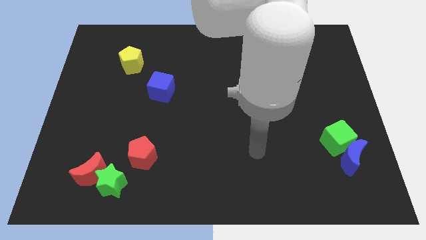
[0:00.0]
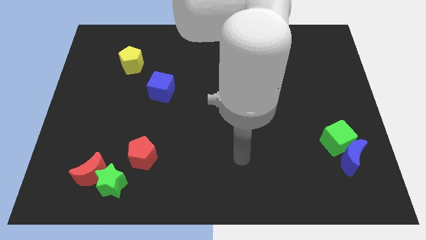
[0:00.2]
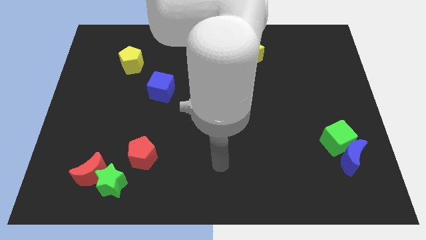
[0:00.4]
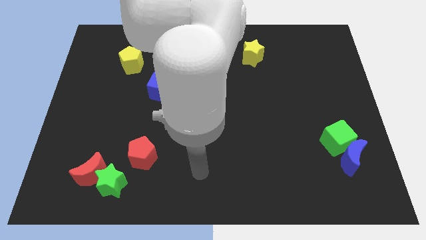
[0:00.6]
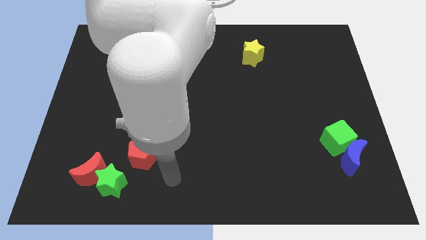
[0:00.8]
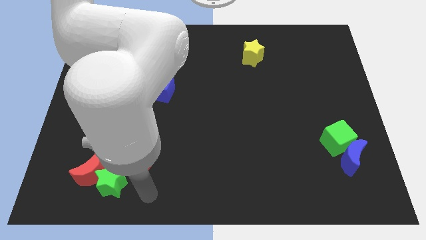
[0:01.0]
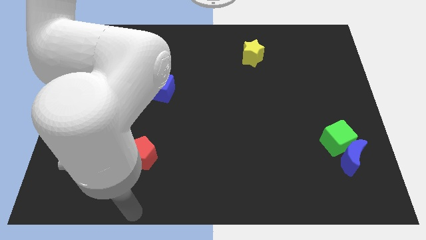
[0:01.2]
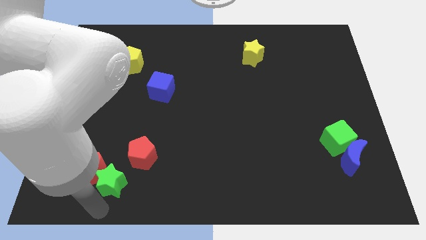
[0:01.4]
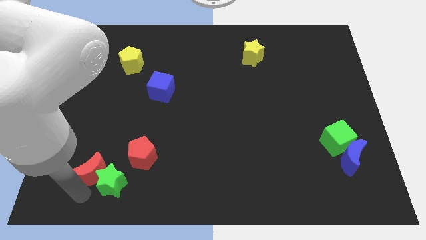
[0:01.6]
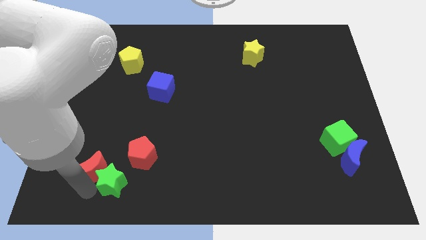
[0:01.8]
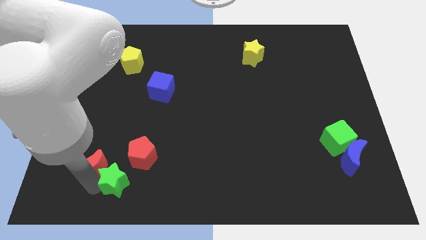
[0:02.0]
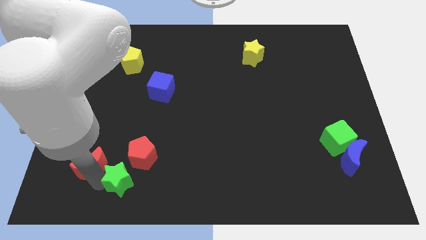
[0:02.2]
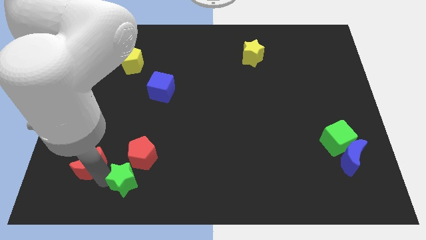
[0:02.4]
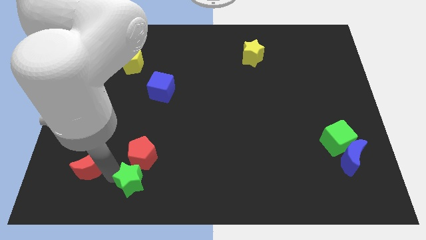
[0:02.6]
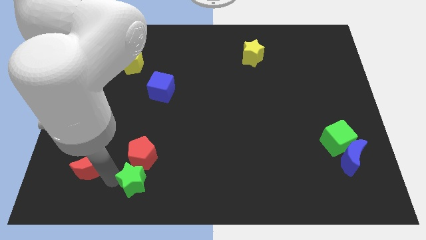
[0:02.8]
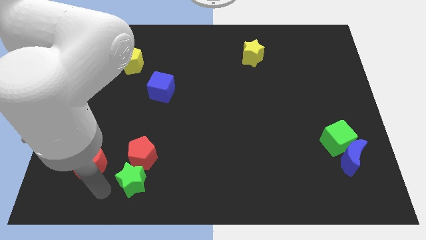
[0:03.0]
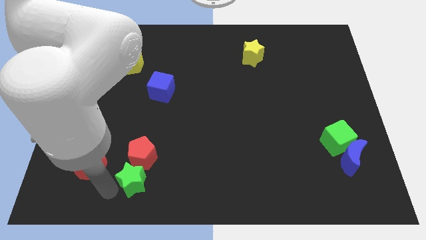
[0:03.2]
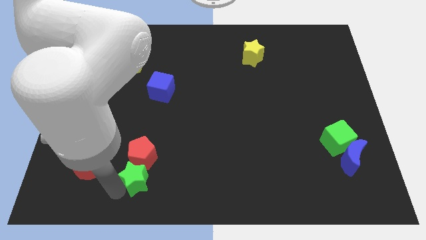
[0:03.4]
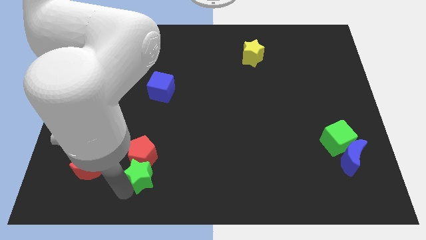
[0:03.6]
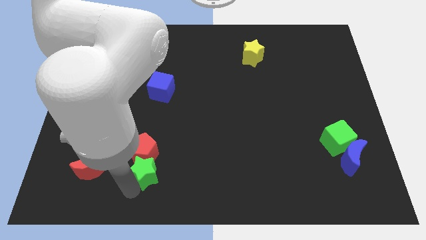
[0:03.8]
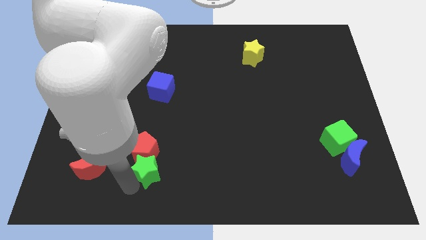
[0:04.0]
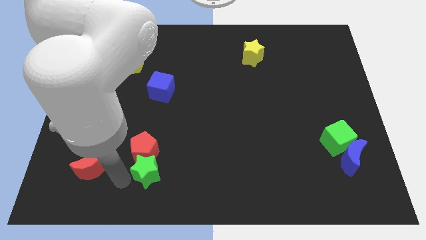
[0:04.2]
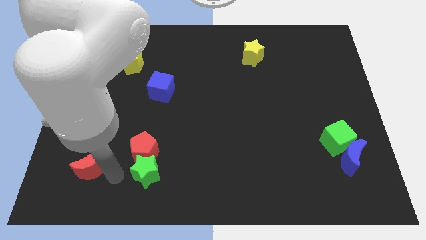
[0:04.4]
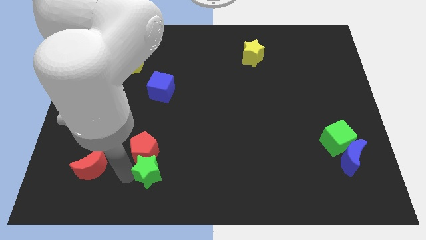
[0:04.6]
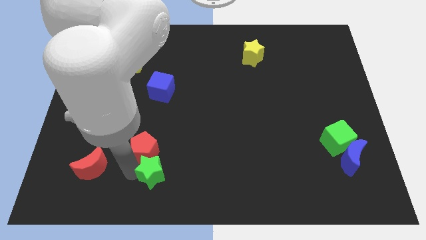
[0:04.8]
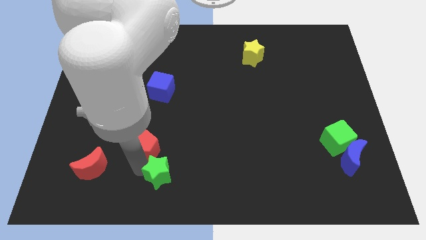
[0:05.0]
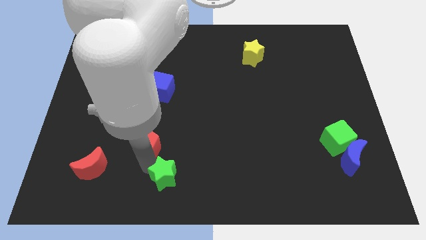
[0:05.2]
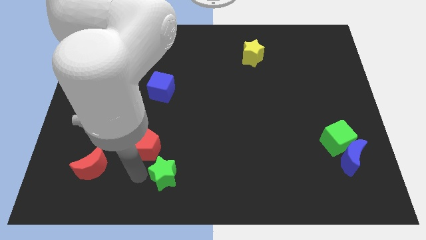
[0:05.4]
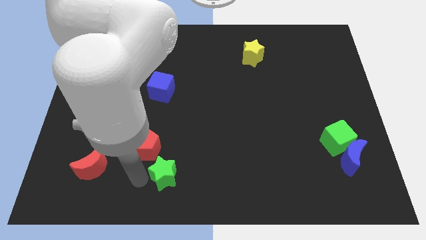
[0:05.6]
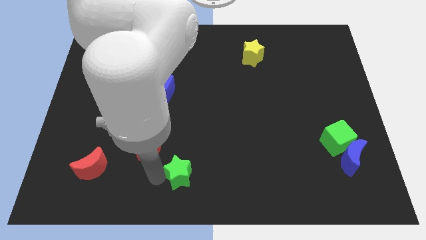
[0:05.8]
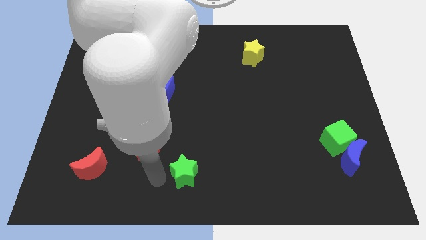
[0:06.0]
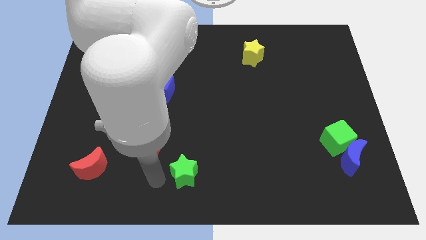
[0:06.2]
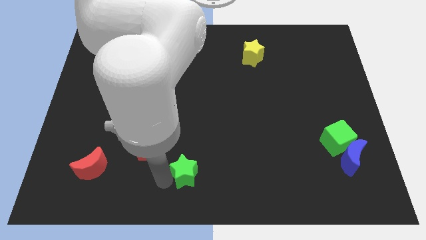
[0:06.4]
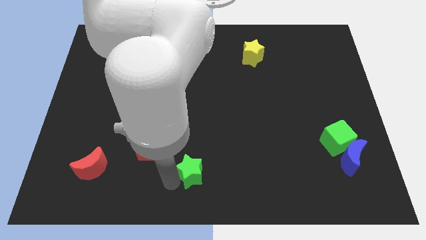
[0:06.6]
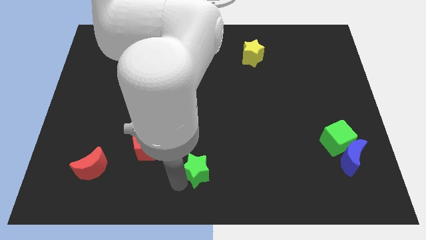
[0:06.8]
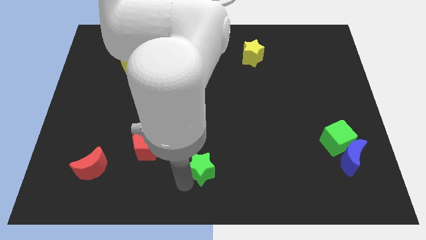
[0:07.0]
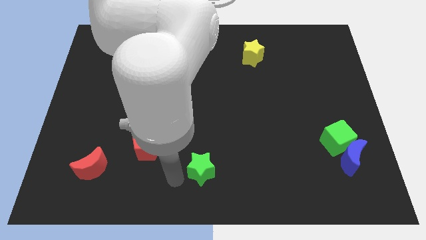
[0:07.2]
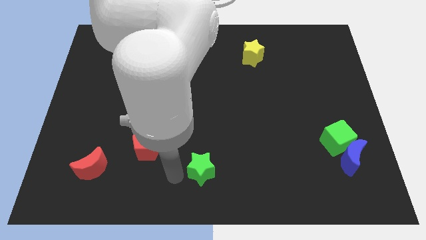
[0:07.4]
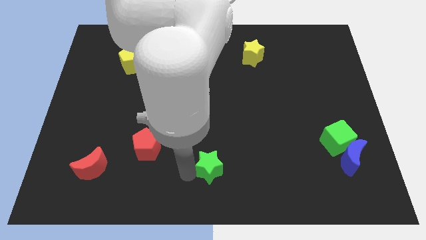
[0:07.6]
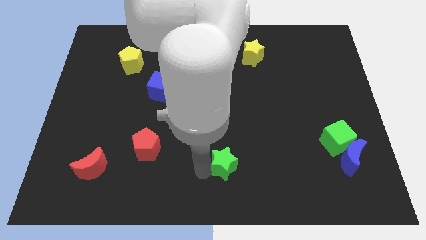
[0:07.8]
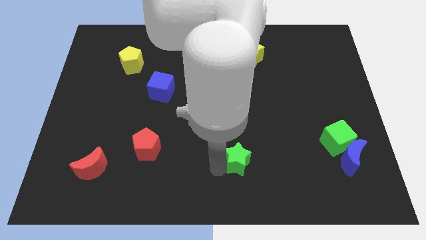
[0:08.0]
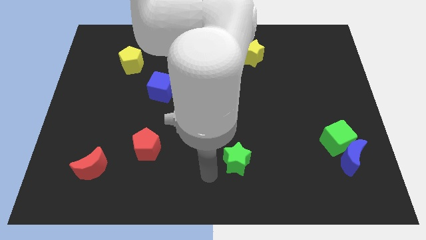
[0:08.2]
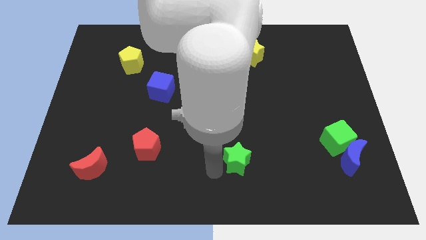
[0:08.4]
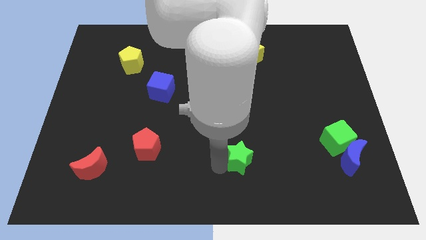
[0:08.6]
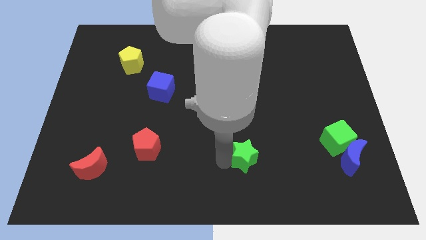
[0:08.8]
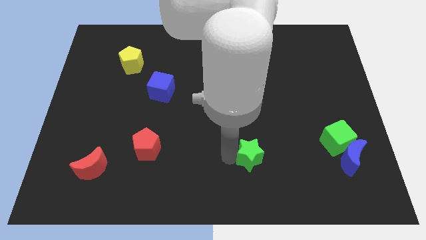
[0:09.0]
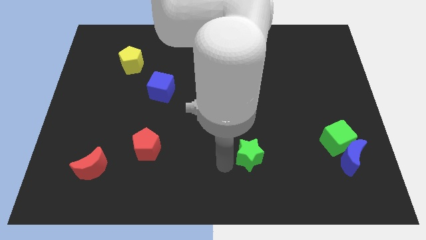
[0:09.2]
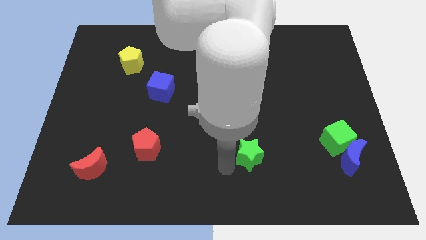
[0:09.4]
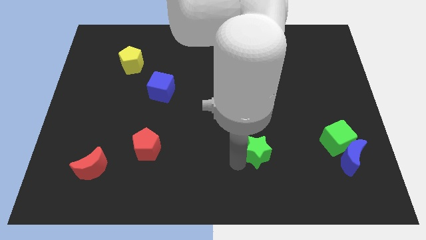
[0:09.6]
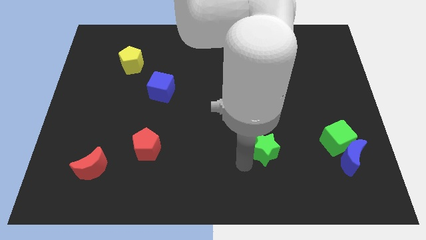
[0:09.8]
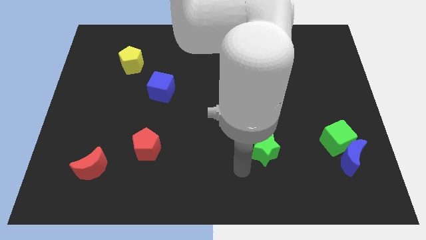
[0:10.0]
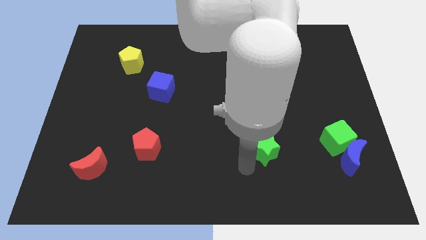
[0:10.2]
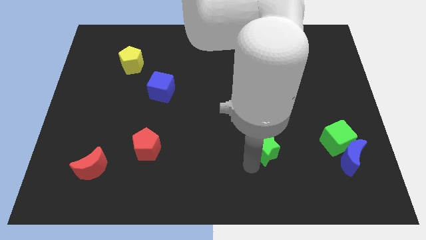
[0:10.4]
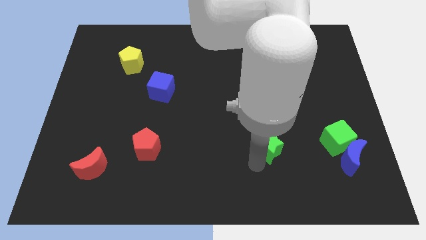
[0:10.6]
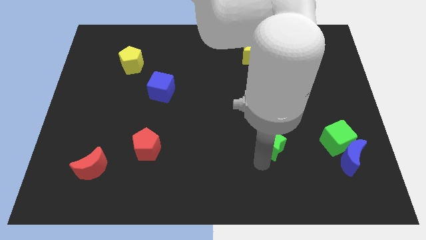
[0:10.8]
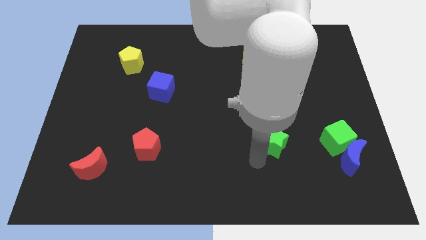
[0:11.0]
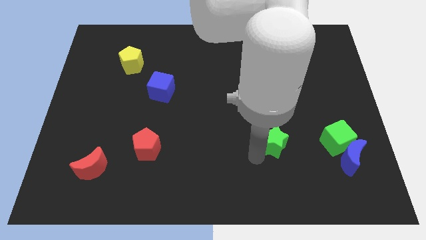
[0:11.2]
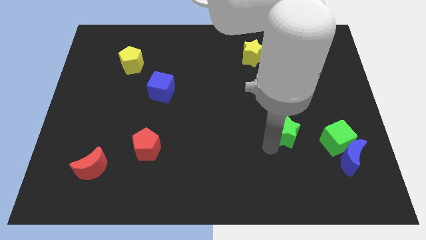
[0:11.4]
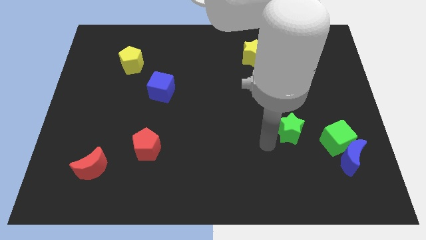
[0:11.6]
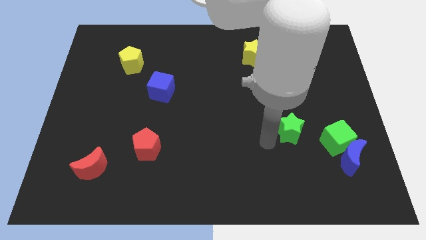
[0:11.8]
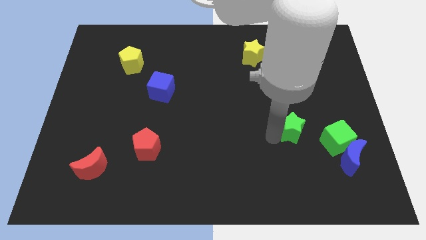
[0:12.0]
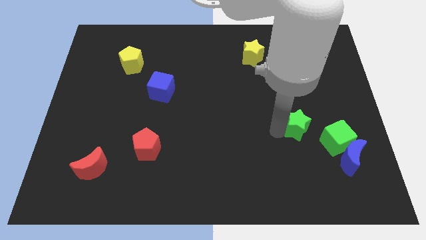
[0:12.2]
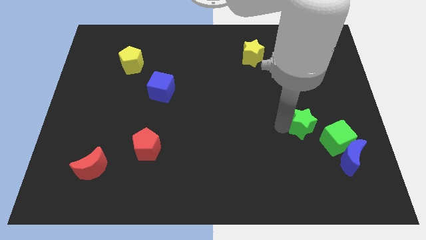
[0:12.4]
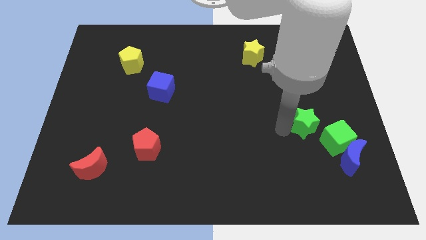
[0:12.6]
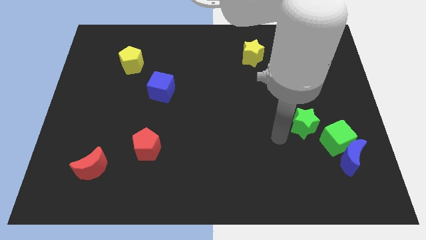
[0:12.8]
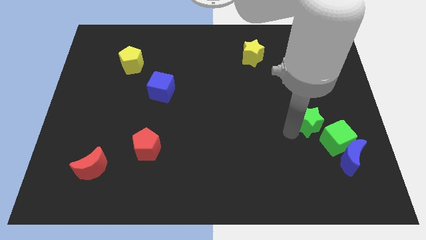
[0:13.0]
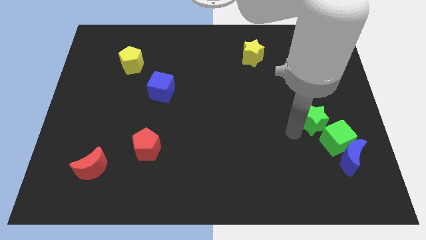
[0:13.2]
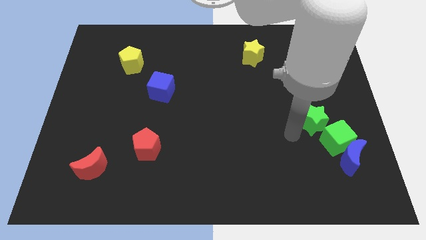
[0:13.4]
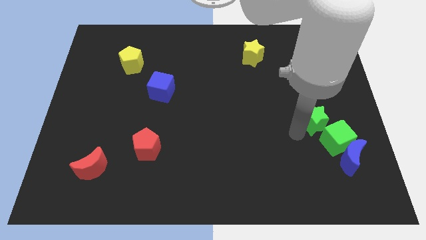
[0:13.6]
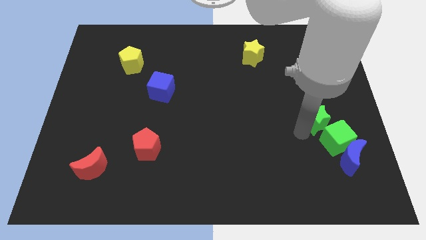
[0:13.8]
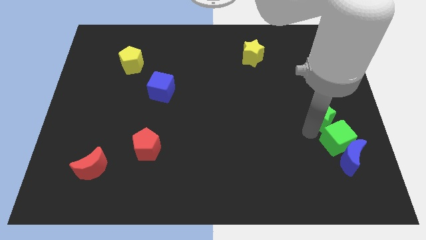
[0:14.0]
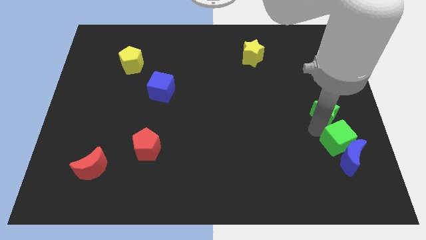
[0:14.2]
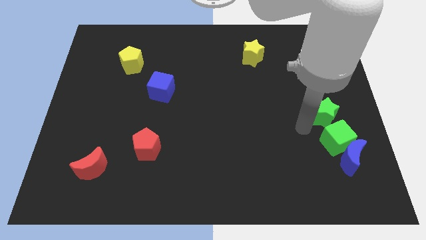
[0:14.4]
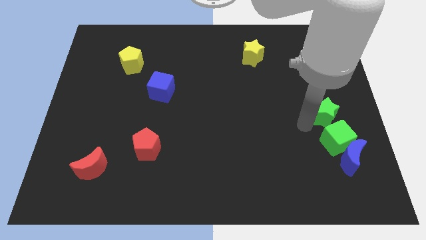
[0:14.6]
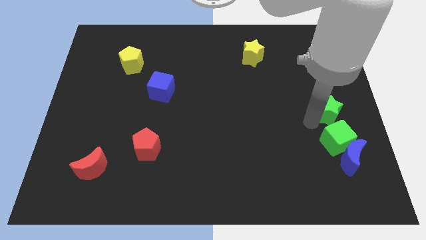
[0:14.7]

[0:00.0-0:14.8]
push the green star to the right side of the board
